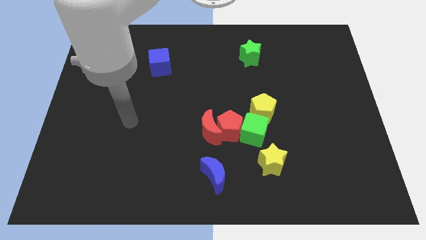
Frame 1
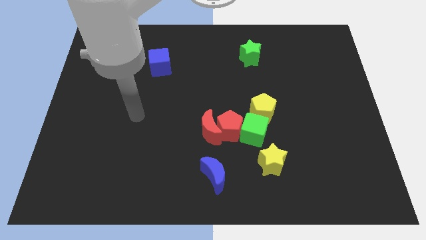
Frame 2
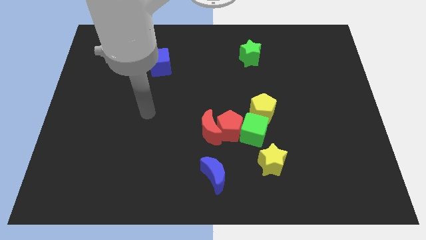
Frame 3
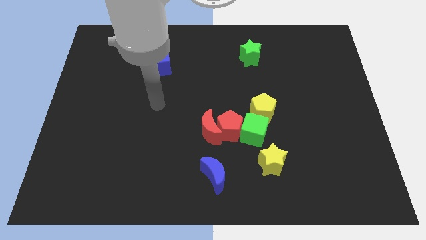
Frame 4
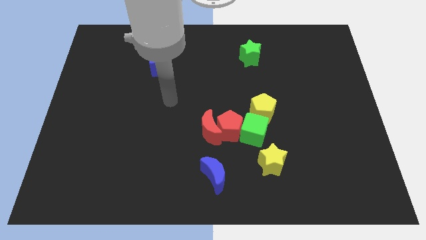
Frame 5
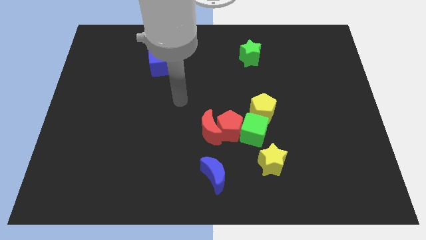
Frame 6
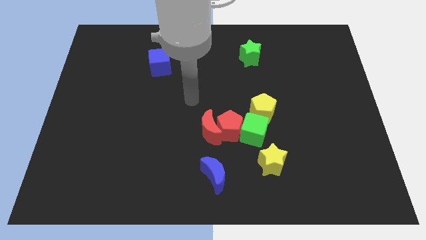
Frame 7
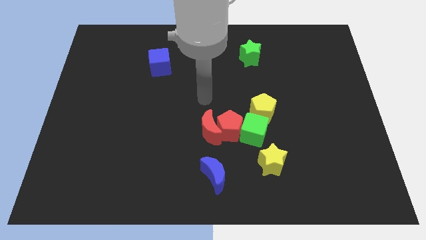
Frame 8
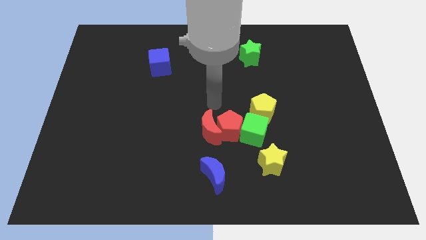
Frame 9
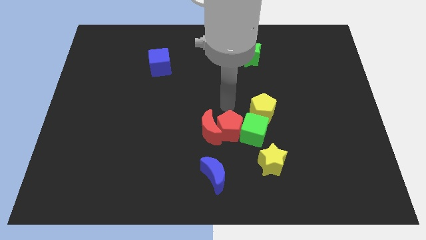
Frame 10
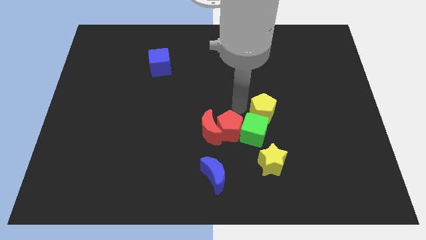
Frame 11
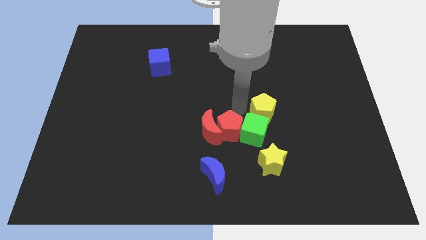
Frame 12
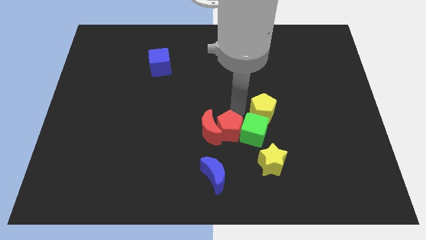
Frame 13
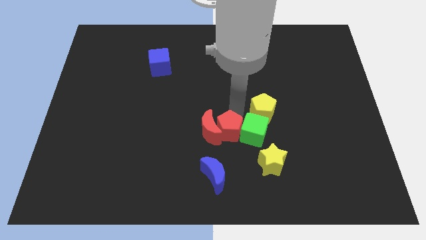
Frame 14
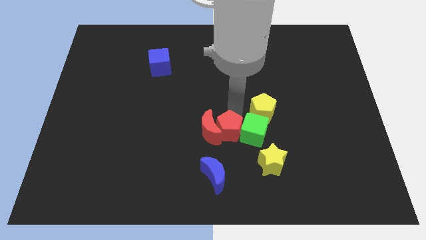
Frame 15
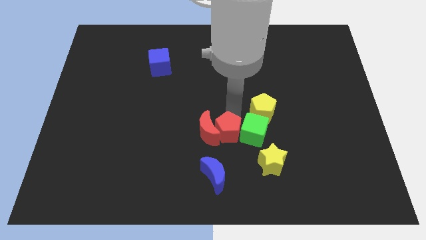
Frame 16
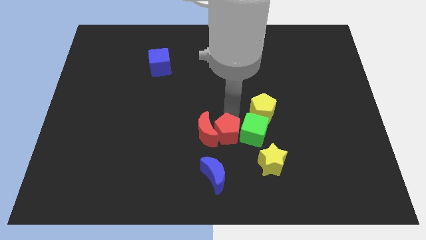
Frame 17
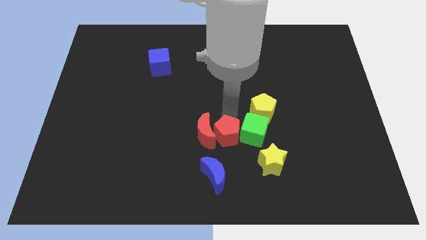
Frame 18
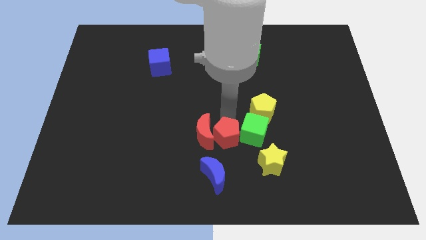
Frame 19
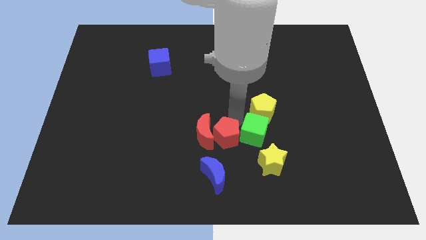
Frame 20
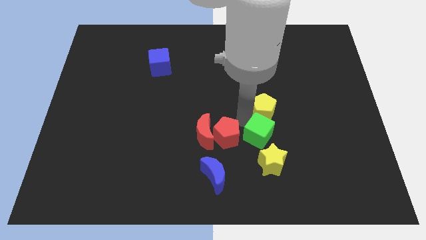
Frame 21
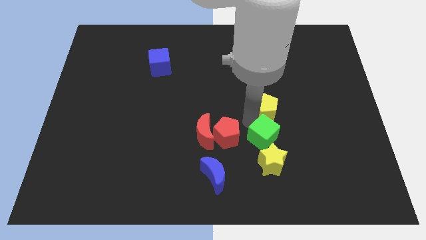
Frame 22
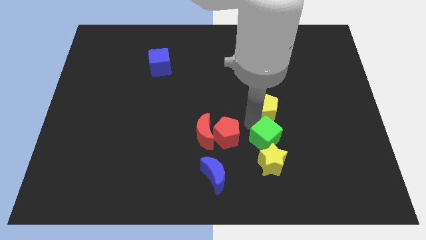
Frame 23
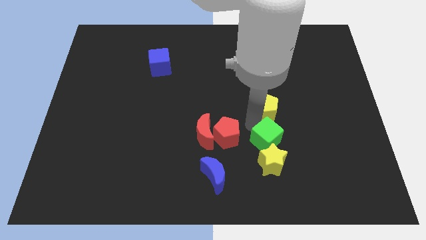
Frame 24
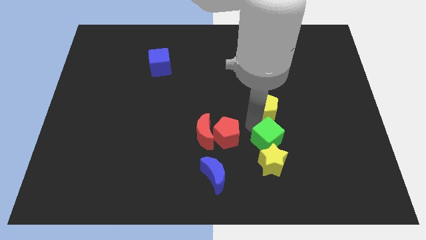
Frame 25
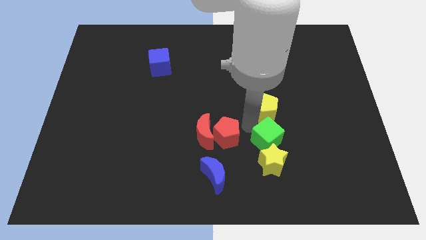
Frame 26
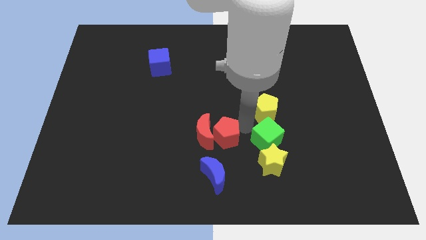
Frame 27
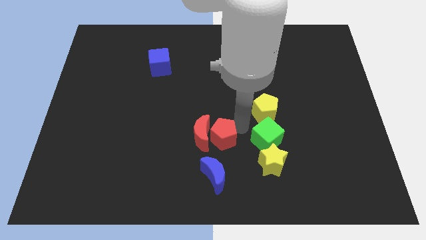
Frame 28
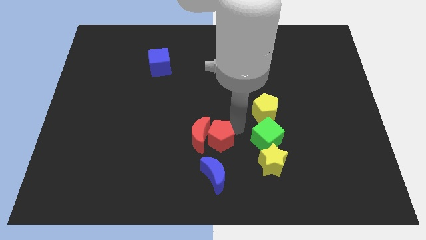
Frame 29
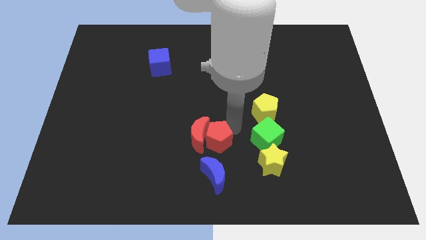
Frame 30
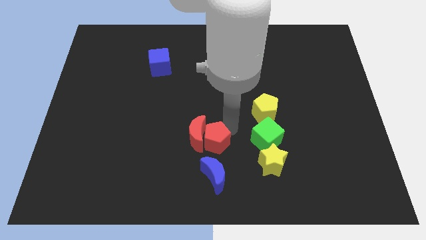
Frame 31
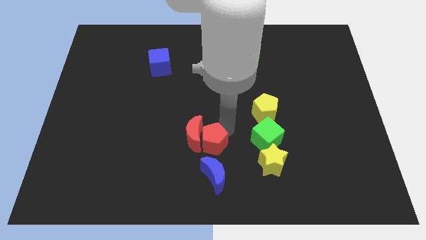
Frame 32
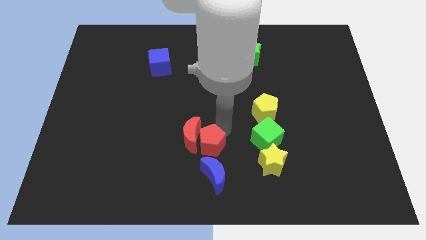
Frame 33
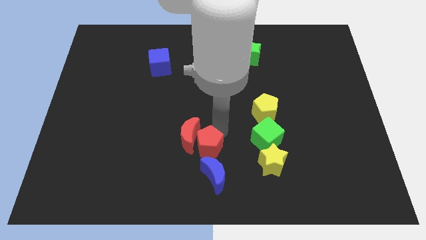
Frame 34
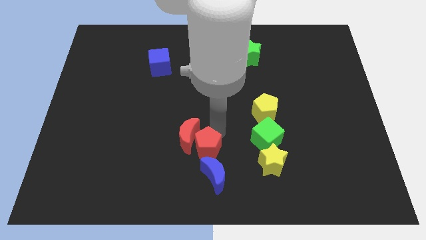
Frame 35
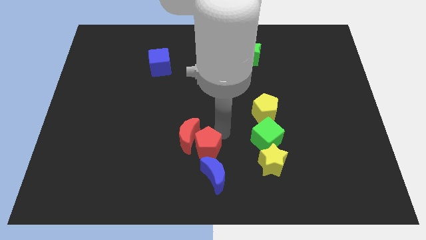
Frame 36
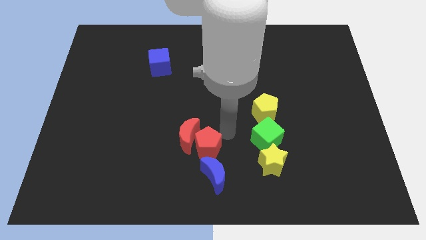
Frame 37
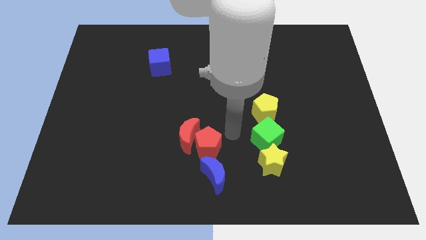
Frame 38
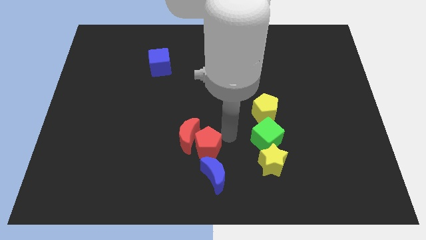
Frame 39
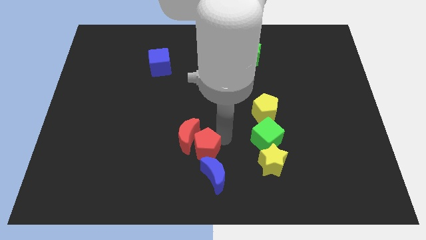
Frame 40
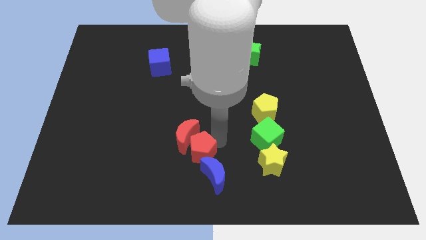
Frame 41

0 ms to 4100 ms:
pull the red pentagon apart from the red moon, green cube, and yellow pentagon

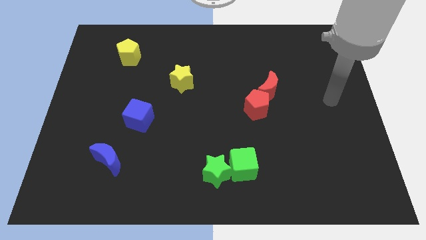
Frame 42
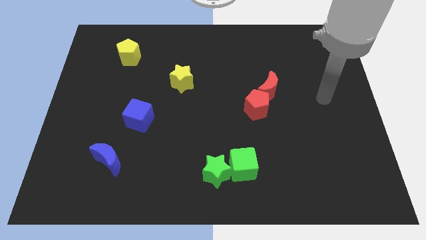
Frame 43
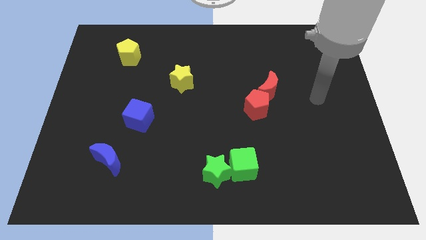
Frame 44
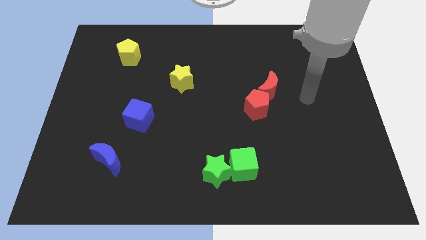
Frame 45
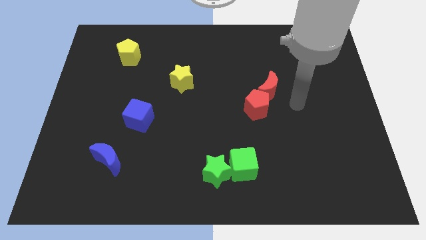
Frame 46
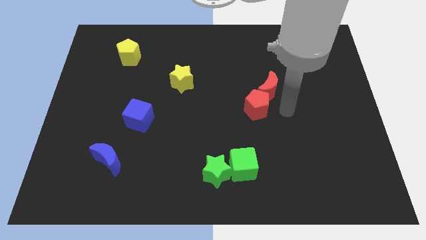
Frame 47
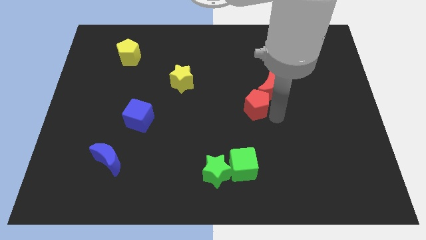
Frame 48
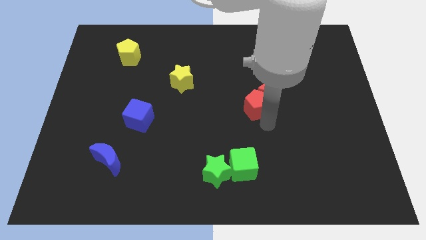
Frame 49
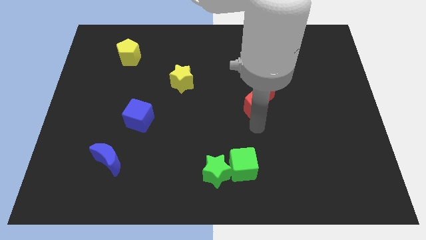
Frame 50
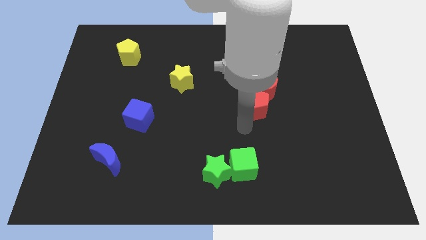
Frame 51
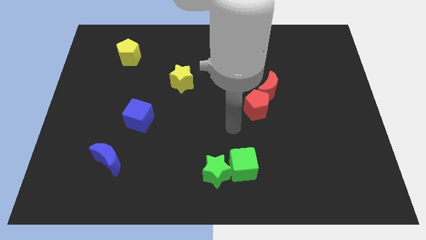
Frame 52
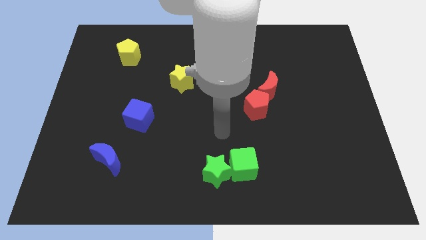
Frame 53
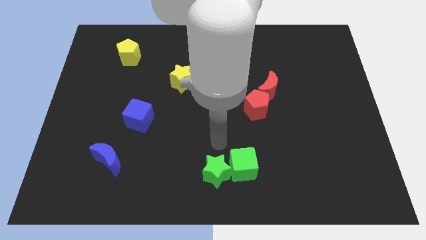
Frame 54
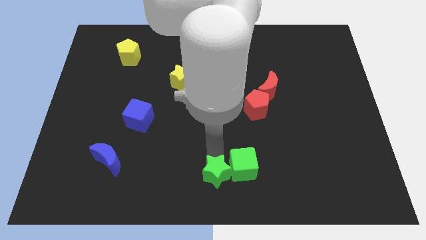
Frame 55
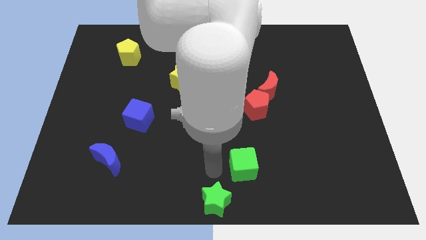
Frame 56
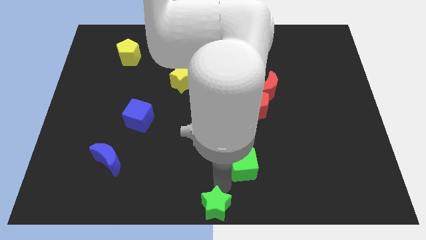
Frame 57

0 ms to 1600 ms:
move the green cube away from the green star

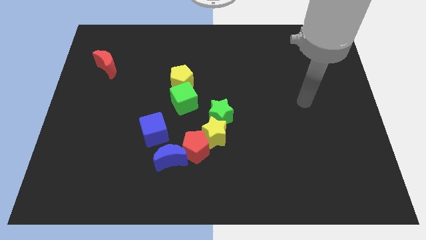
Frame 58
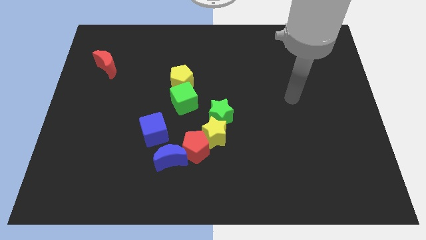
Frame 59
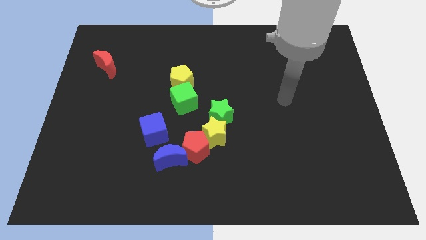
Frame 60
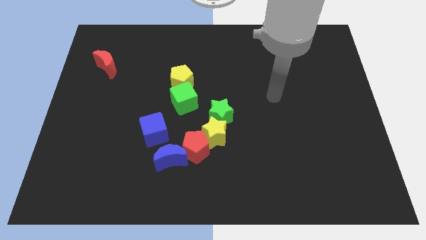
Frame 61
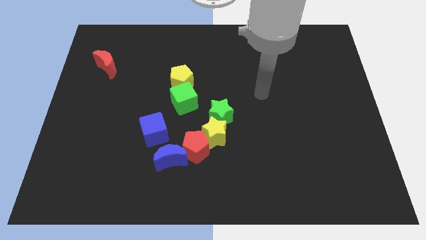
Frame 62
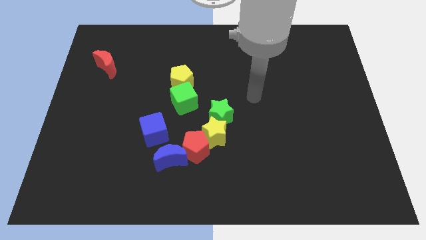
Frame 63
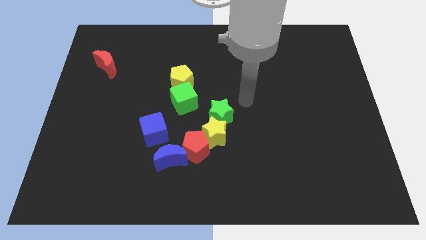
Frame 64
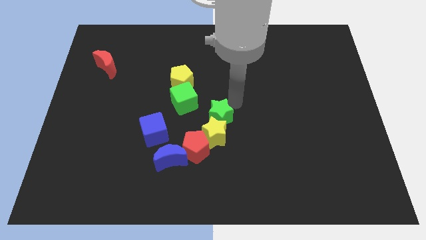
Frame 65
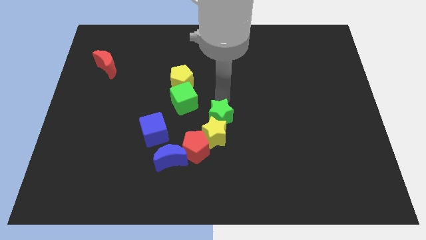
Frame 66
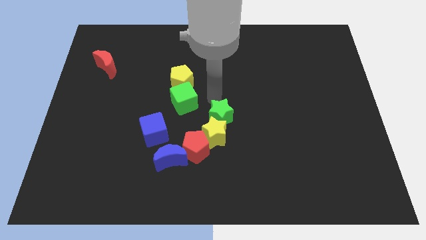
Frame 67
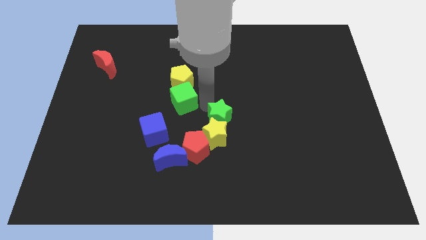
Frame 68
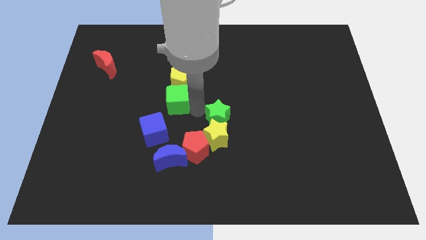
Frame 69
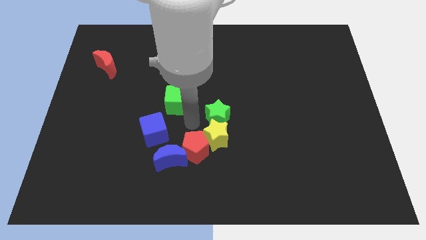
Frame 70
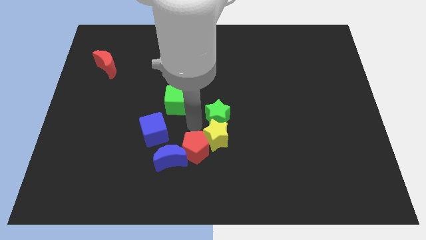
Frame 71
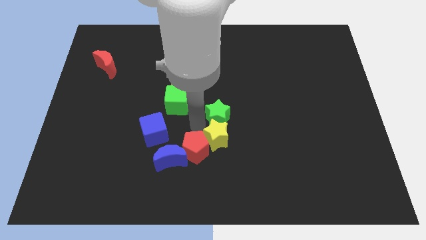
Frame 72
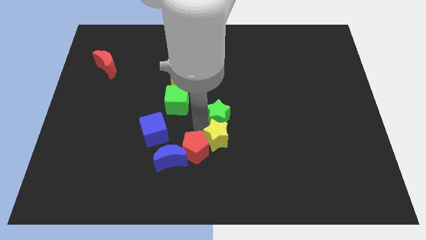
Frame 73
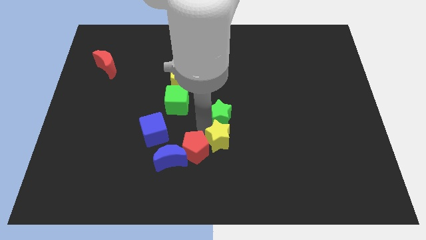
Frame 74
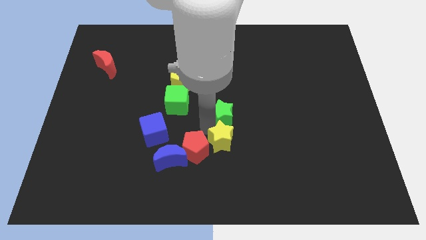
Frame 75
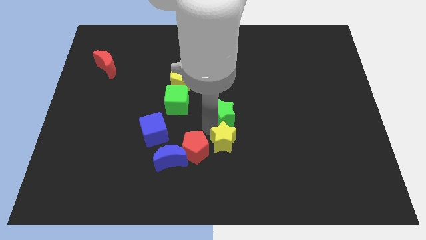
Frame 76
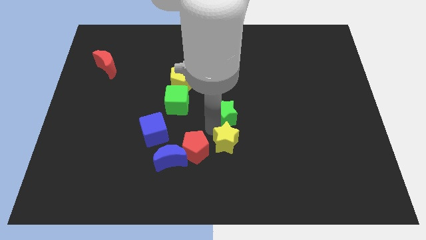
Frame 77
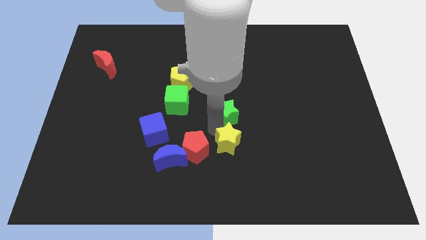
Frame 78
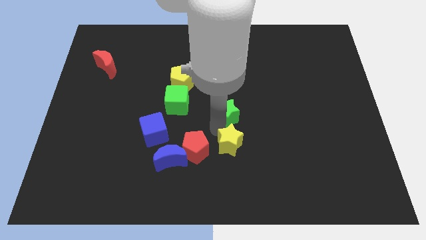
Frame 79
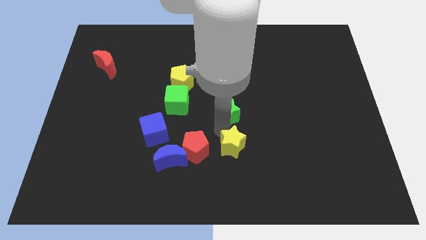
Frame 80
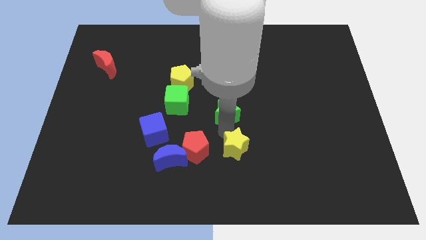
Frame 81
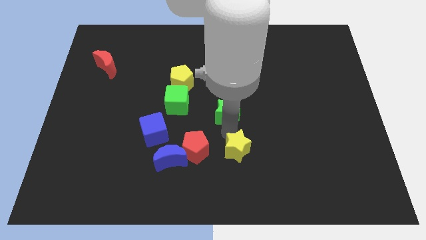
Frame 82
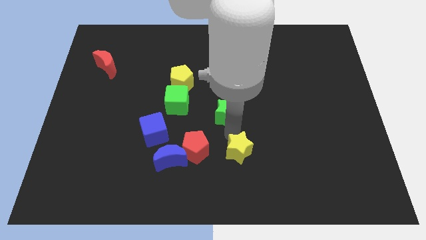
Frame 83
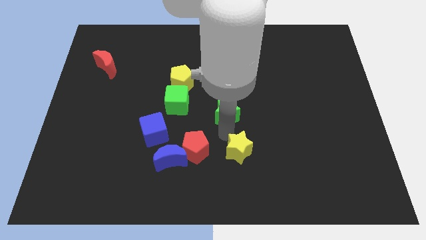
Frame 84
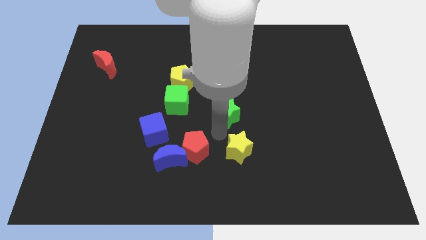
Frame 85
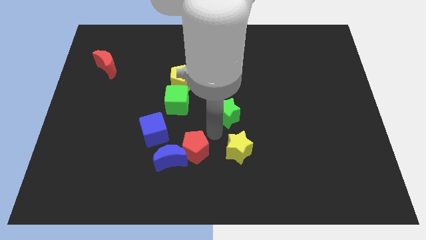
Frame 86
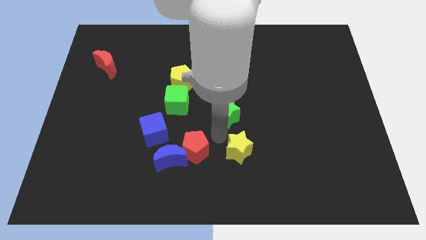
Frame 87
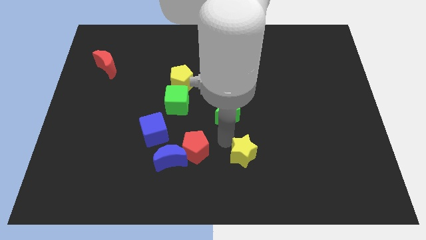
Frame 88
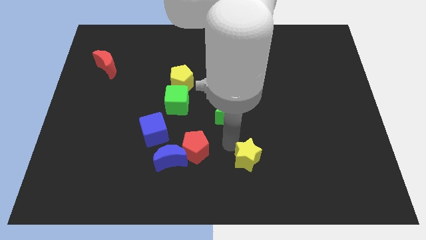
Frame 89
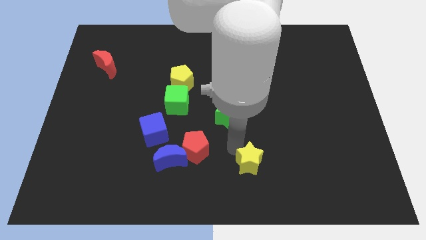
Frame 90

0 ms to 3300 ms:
move the yellow star away from the red pentagon and green star

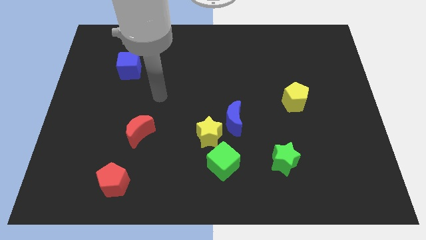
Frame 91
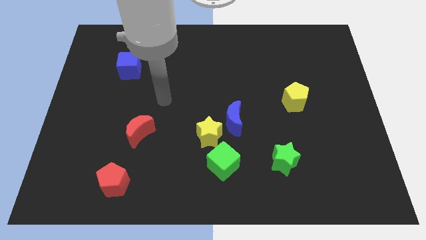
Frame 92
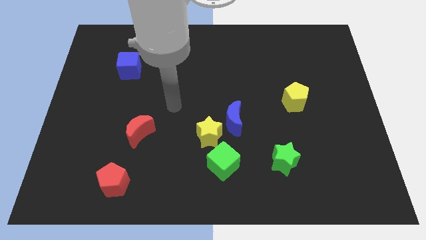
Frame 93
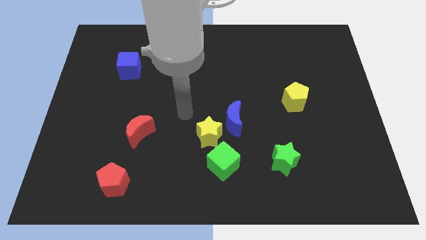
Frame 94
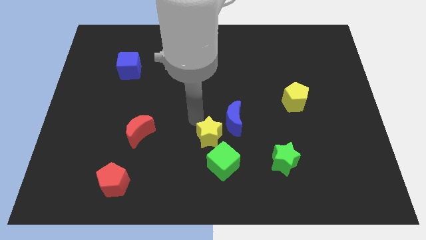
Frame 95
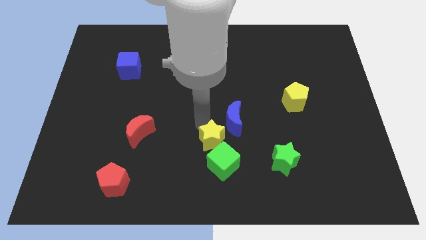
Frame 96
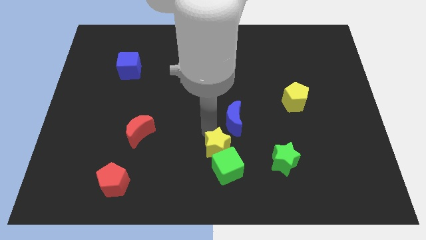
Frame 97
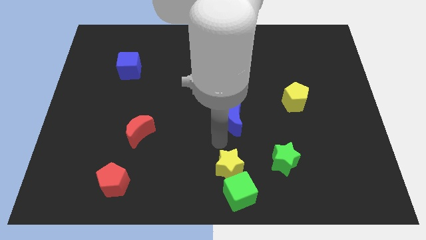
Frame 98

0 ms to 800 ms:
move the blue moon away from the yellow star
